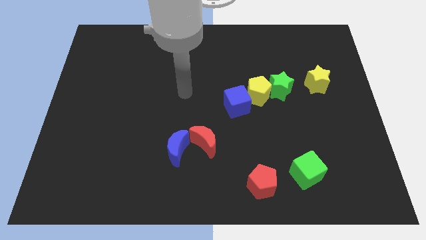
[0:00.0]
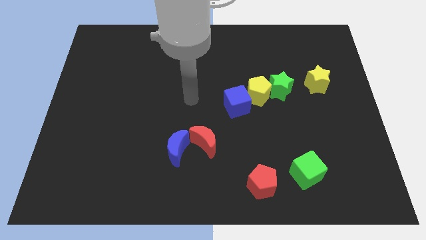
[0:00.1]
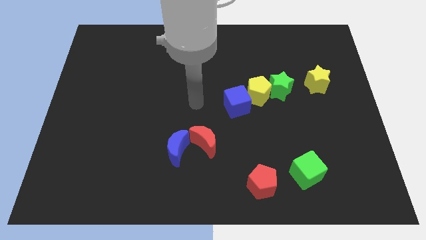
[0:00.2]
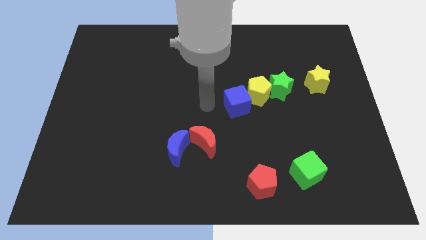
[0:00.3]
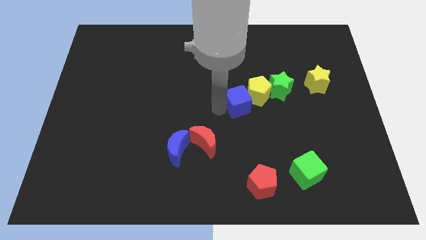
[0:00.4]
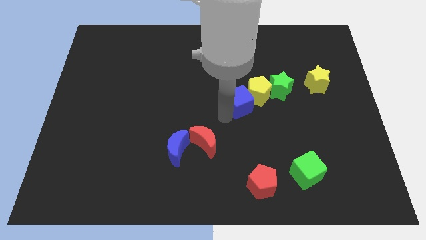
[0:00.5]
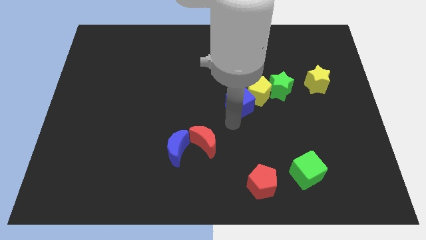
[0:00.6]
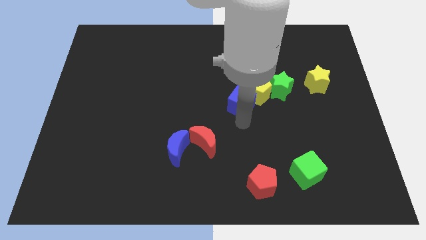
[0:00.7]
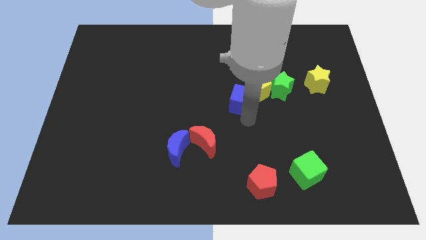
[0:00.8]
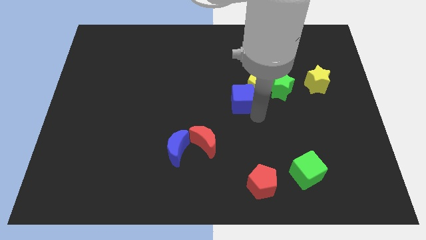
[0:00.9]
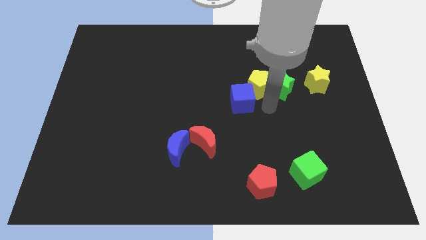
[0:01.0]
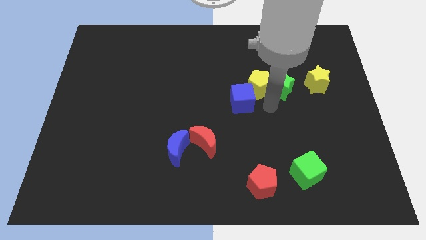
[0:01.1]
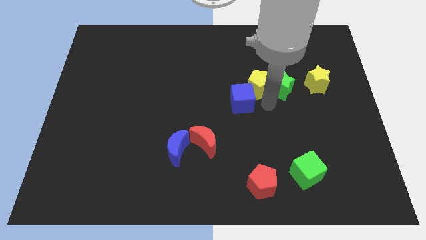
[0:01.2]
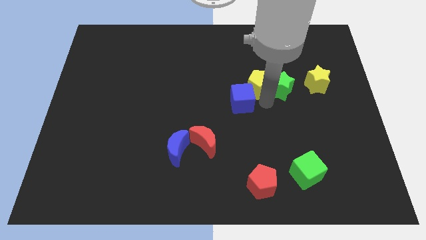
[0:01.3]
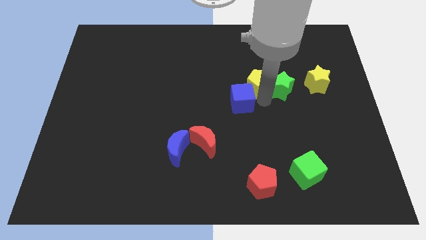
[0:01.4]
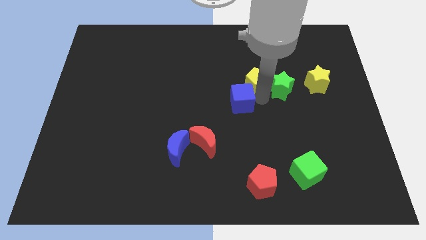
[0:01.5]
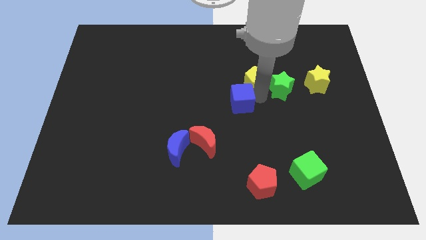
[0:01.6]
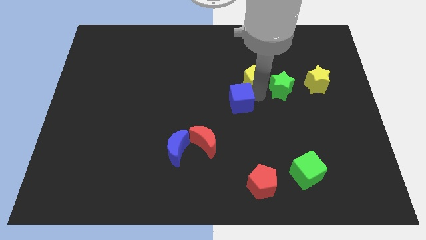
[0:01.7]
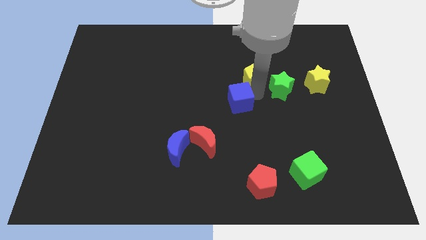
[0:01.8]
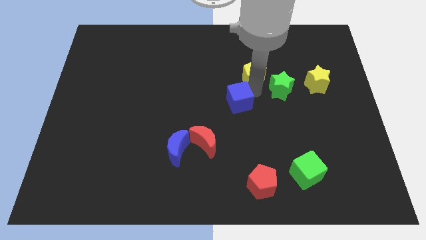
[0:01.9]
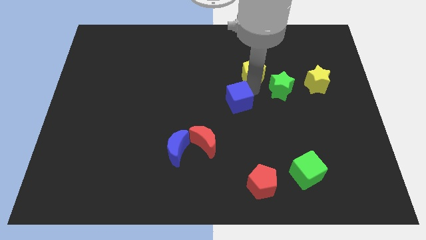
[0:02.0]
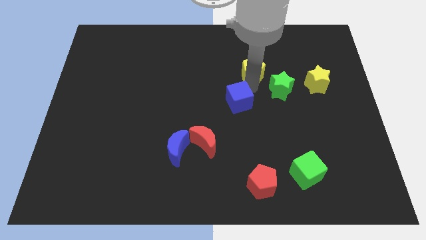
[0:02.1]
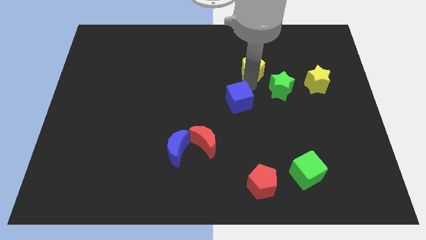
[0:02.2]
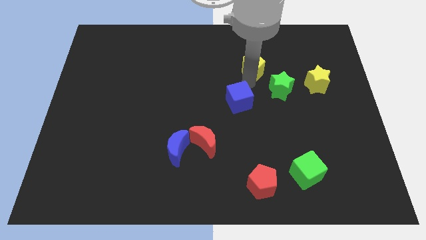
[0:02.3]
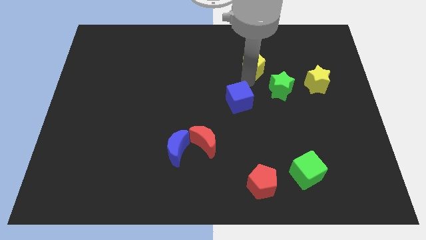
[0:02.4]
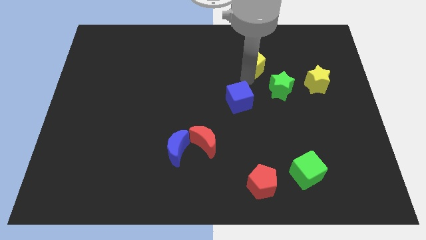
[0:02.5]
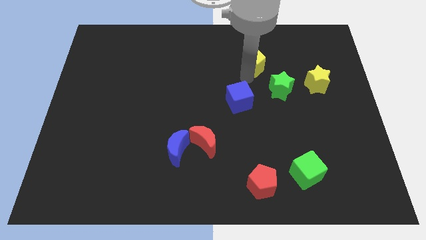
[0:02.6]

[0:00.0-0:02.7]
separate the yellow pentagon from the green star and blue cube

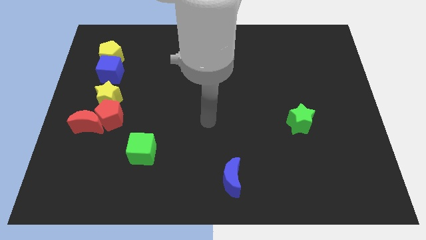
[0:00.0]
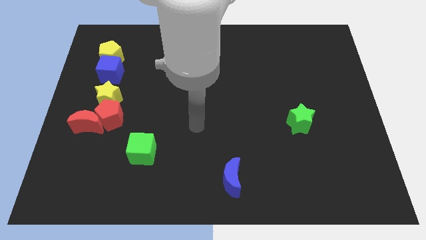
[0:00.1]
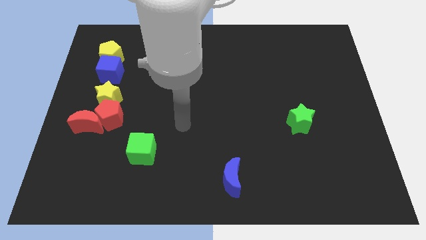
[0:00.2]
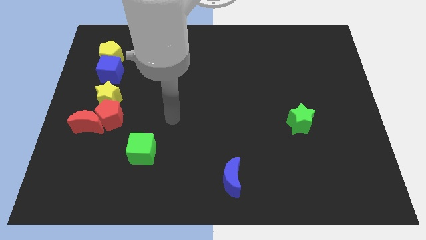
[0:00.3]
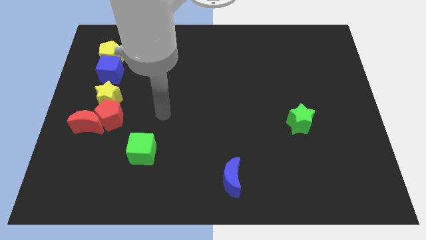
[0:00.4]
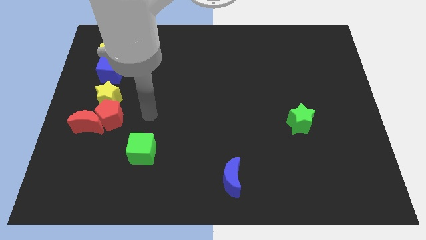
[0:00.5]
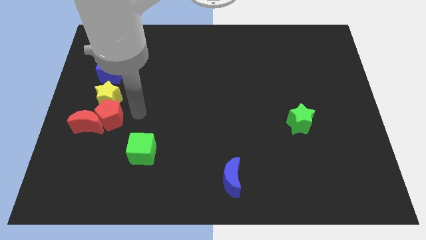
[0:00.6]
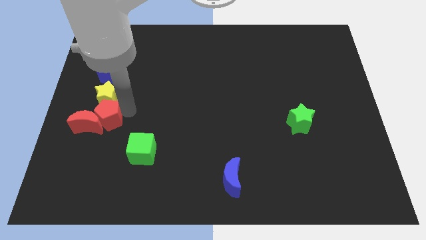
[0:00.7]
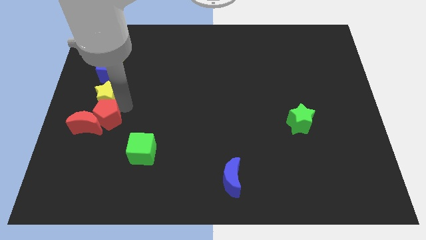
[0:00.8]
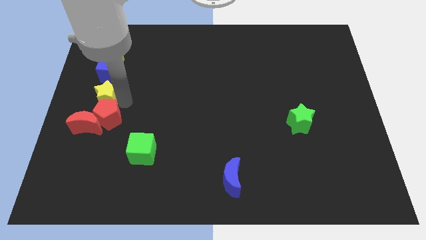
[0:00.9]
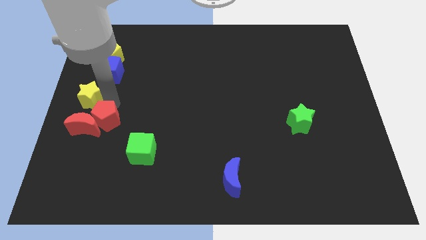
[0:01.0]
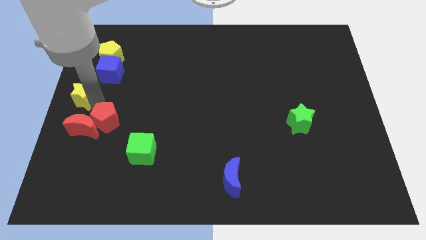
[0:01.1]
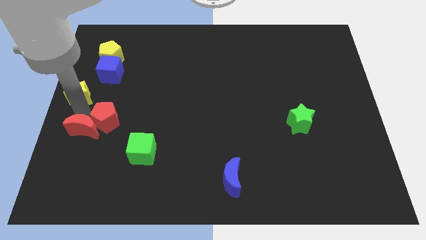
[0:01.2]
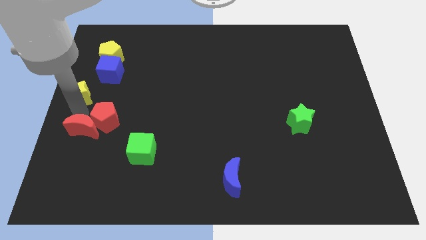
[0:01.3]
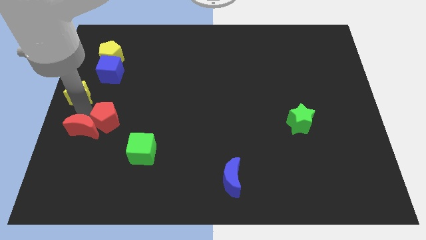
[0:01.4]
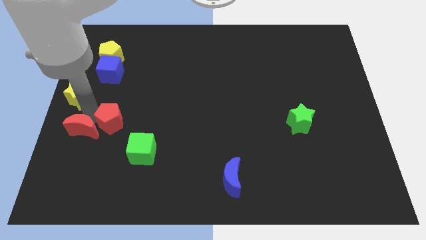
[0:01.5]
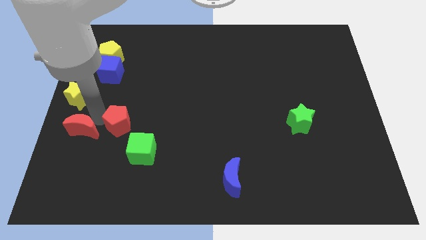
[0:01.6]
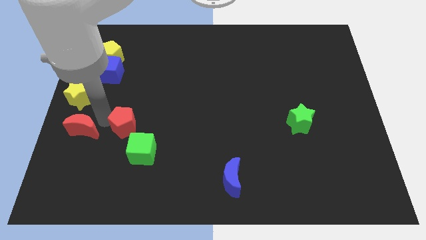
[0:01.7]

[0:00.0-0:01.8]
separate the red pentagon from the red moon and yellow star

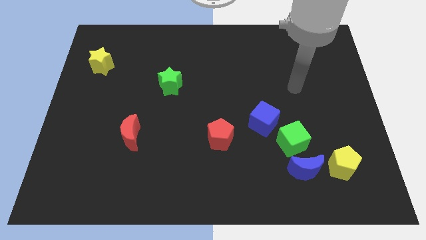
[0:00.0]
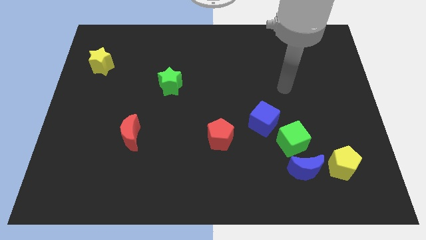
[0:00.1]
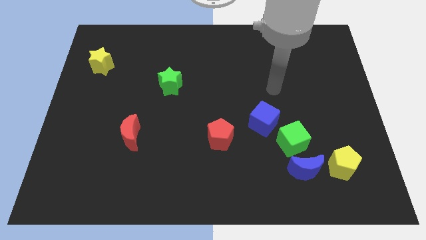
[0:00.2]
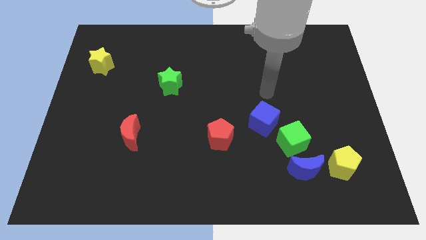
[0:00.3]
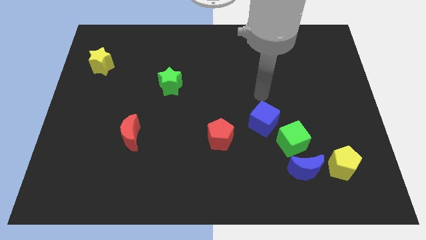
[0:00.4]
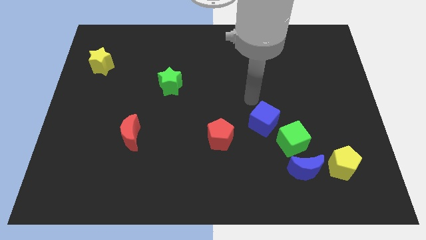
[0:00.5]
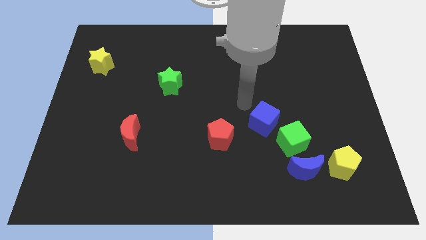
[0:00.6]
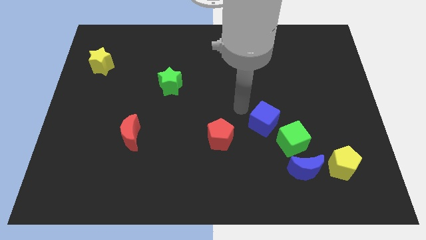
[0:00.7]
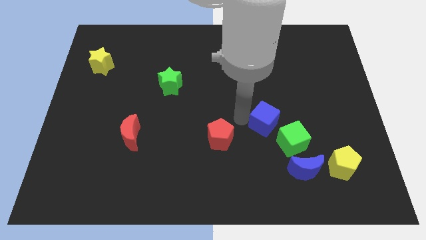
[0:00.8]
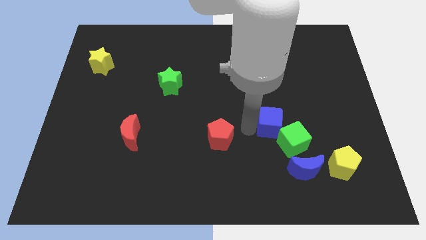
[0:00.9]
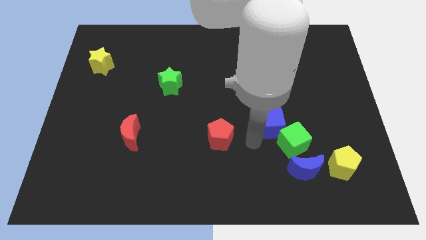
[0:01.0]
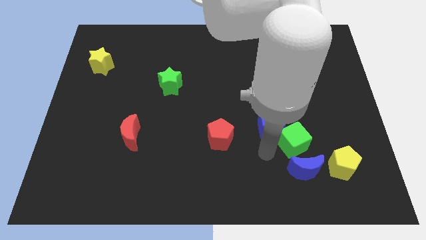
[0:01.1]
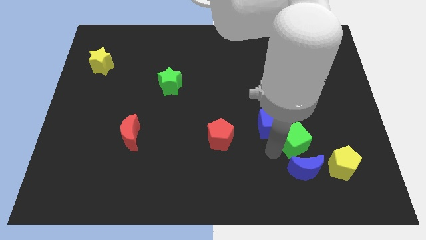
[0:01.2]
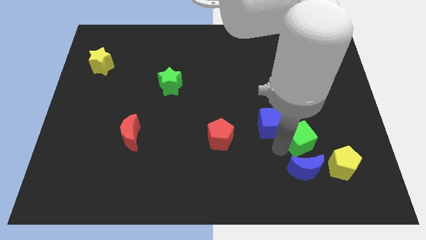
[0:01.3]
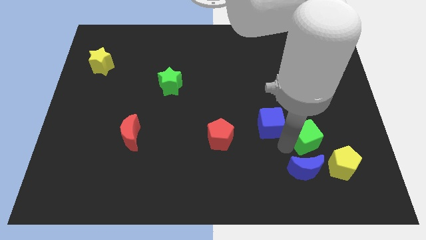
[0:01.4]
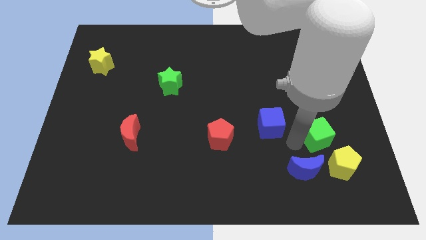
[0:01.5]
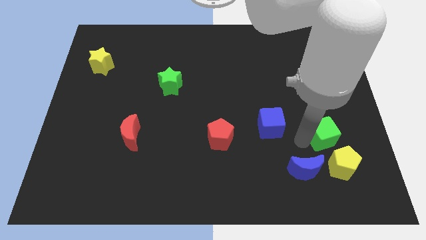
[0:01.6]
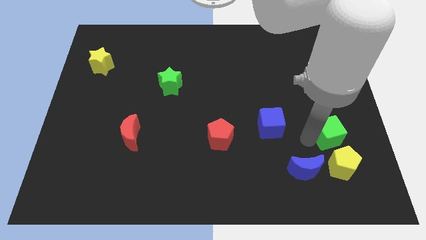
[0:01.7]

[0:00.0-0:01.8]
pull the green cube apart from the blue moon and blue cube

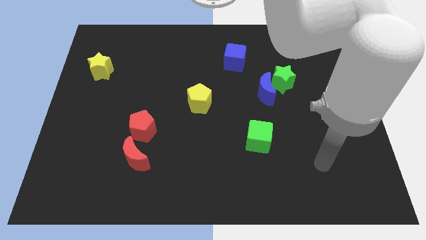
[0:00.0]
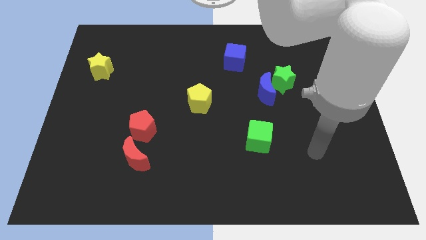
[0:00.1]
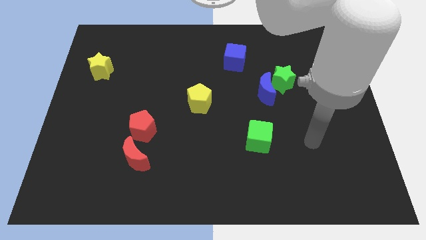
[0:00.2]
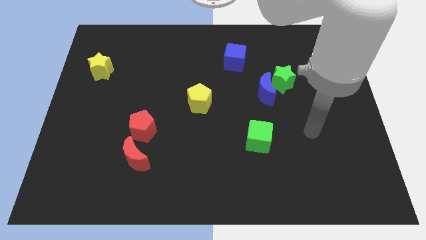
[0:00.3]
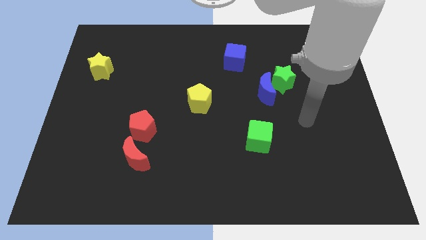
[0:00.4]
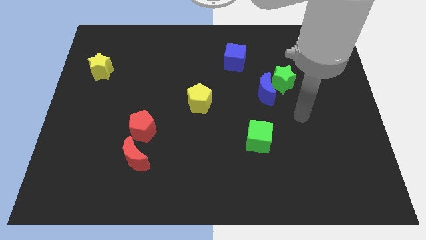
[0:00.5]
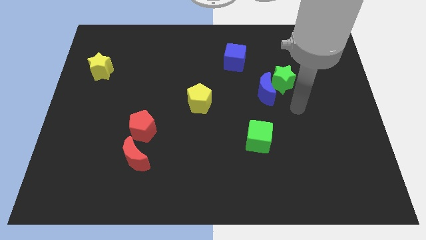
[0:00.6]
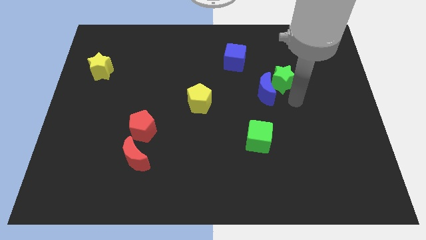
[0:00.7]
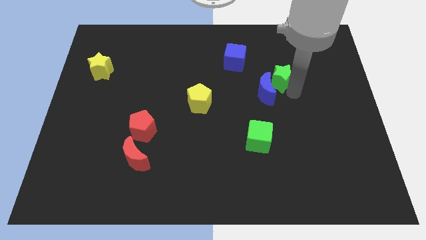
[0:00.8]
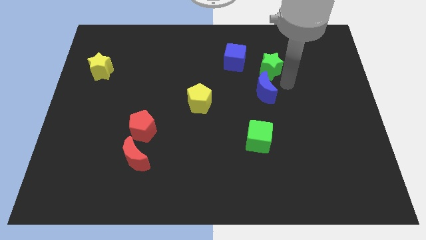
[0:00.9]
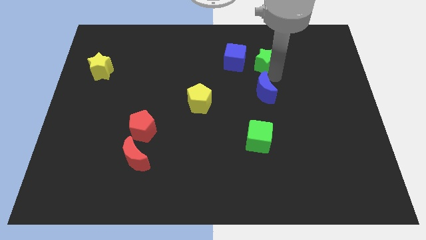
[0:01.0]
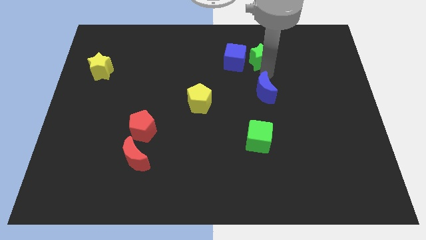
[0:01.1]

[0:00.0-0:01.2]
move the blue moon away from the green star

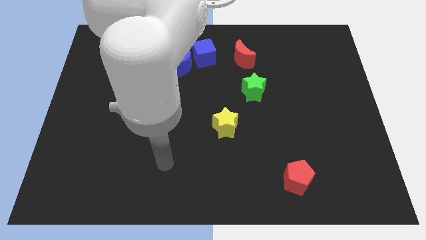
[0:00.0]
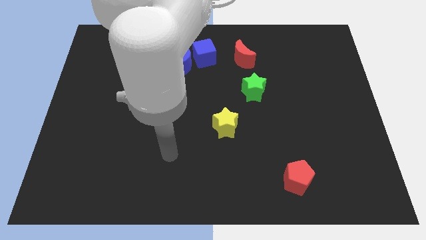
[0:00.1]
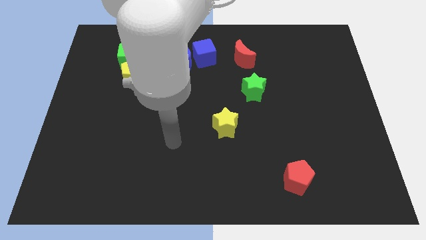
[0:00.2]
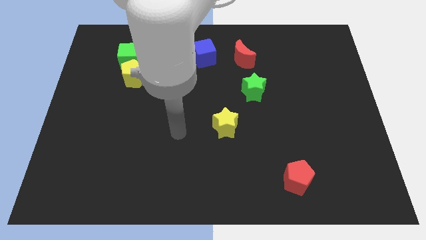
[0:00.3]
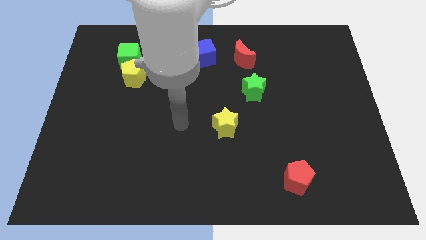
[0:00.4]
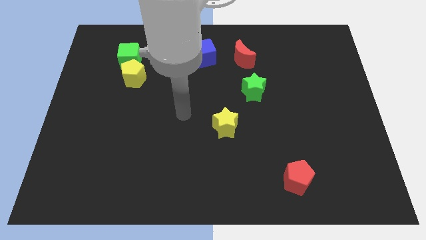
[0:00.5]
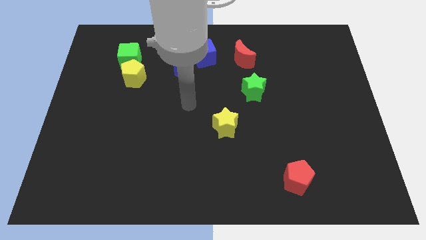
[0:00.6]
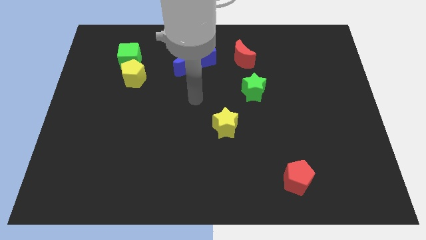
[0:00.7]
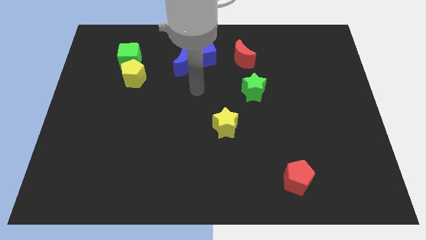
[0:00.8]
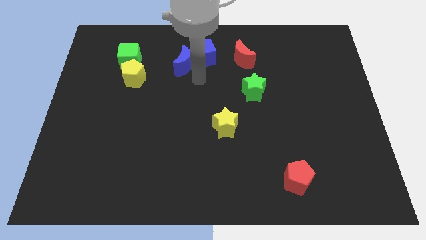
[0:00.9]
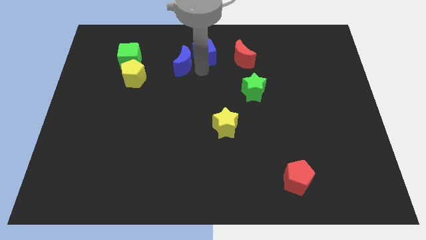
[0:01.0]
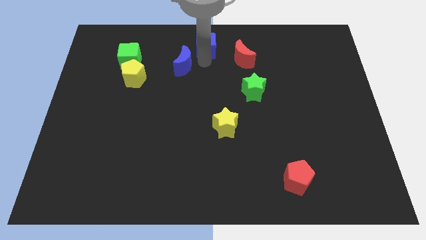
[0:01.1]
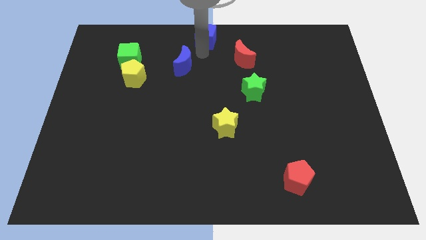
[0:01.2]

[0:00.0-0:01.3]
pull the blue moon apart from the blue cube

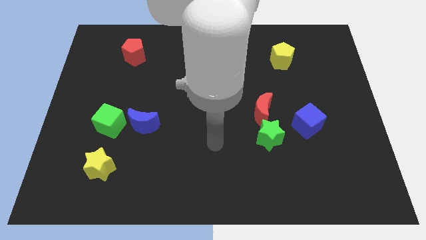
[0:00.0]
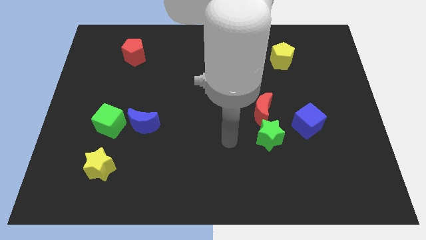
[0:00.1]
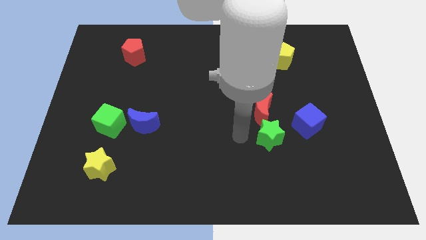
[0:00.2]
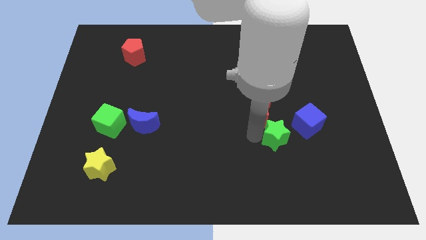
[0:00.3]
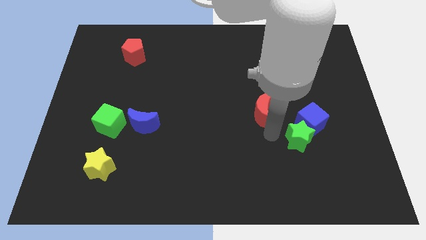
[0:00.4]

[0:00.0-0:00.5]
separate the red moon from the green star

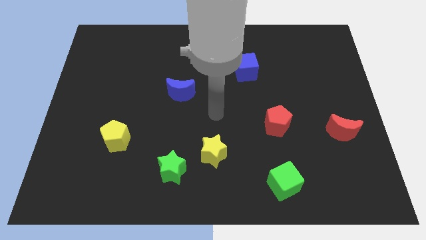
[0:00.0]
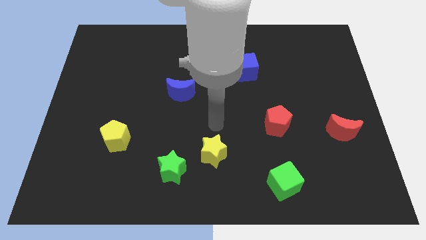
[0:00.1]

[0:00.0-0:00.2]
move the green star away from the yellow star
